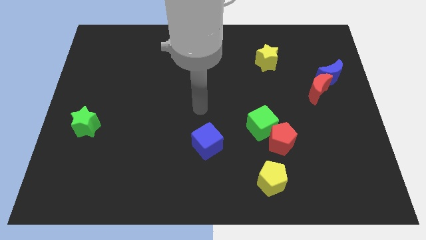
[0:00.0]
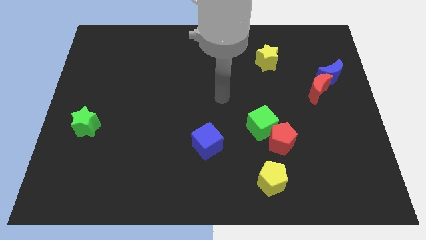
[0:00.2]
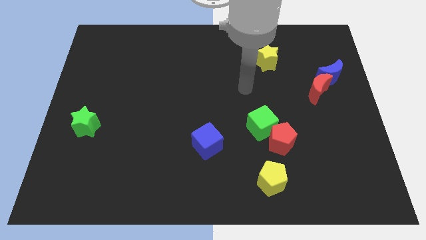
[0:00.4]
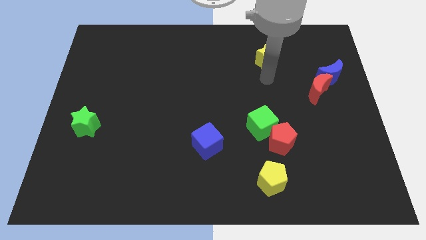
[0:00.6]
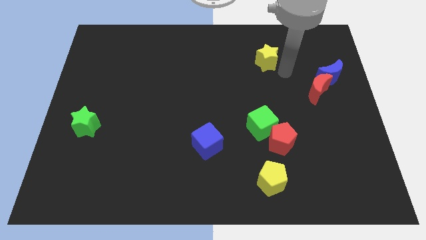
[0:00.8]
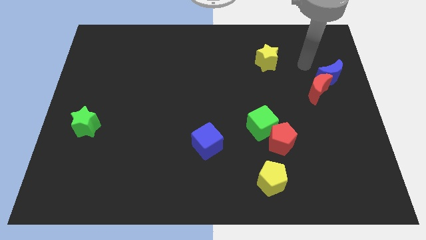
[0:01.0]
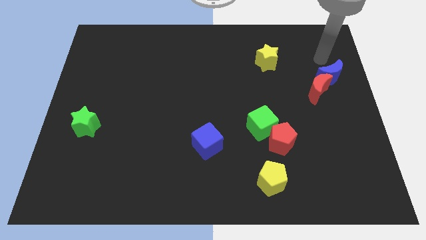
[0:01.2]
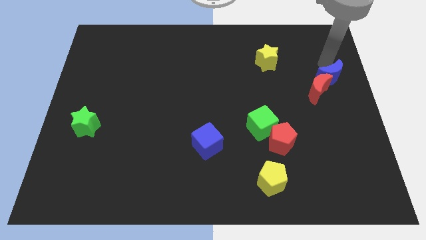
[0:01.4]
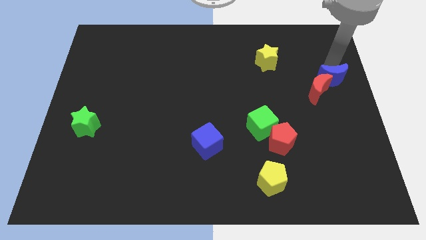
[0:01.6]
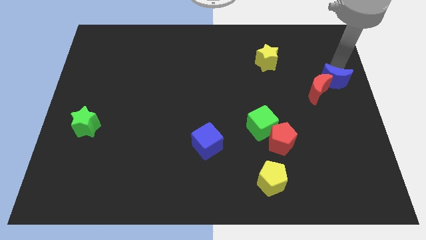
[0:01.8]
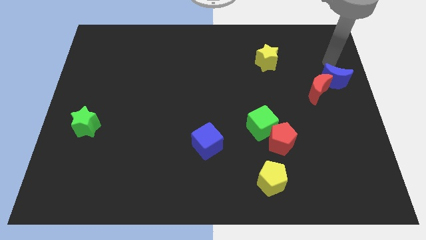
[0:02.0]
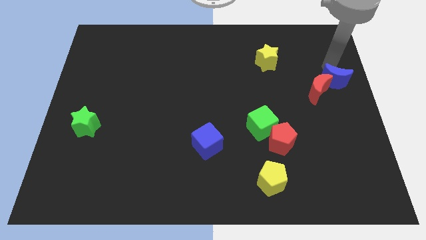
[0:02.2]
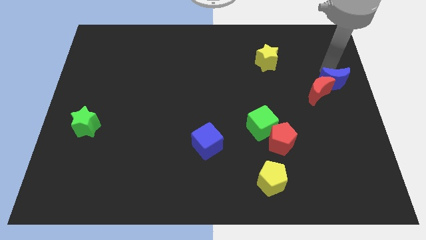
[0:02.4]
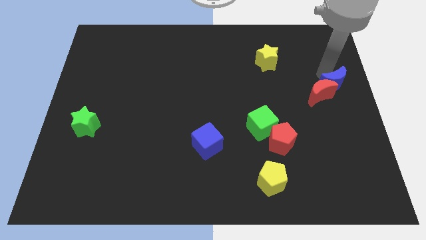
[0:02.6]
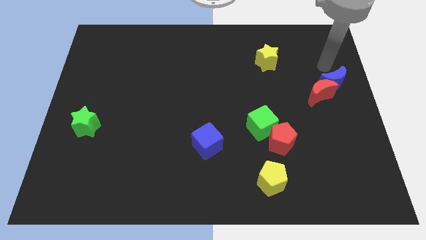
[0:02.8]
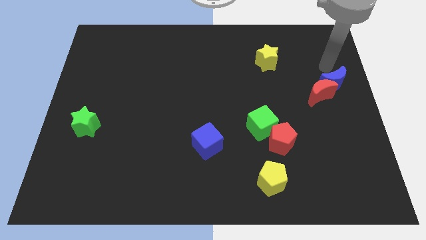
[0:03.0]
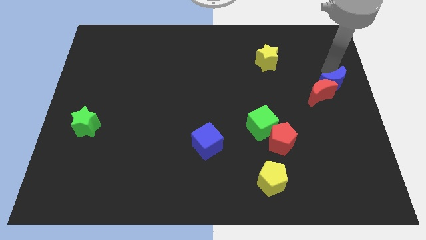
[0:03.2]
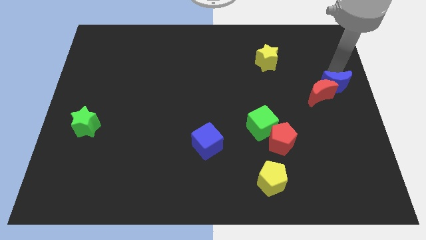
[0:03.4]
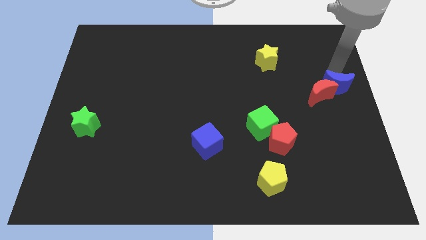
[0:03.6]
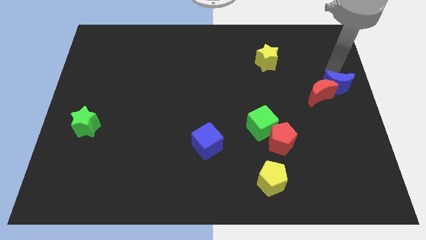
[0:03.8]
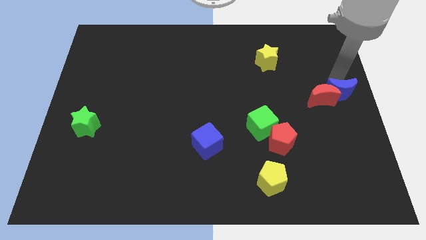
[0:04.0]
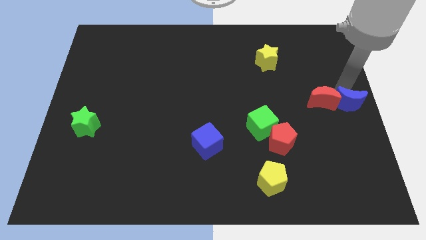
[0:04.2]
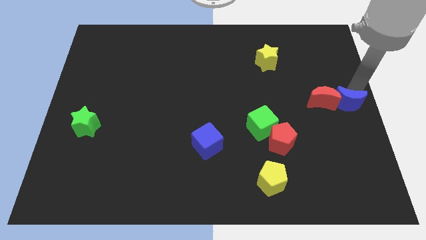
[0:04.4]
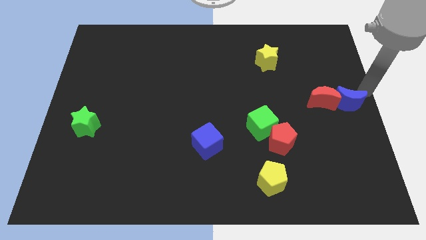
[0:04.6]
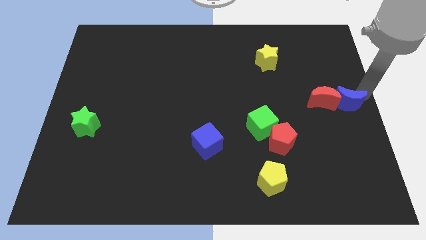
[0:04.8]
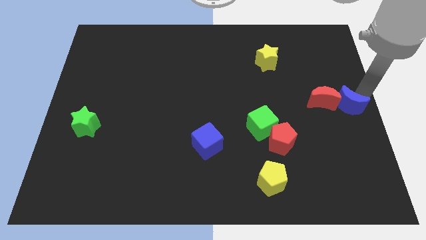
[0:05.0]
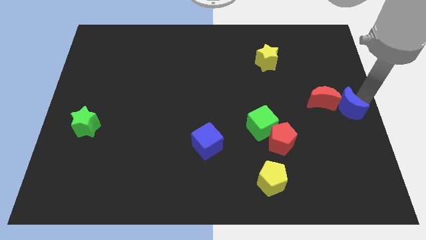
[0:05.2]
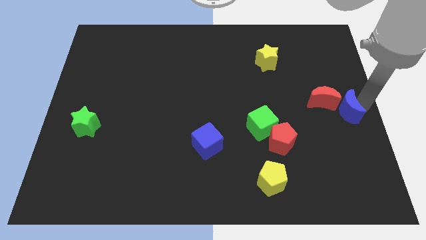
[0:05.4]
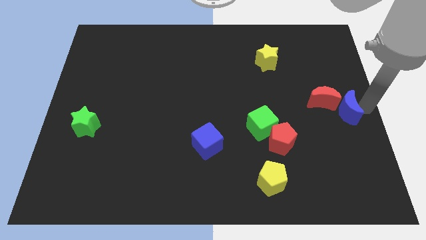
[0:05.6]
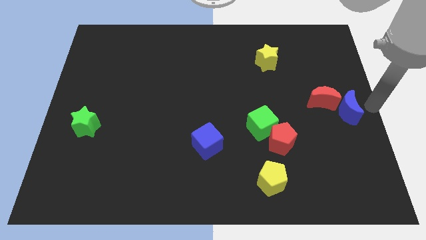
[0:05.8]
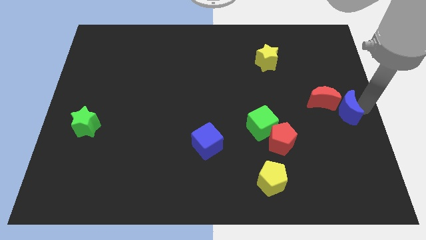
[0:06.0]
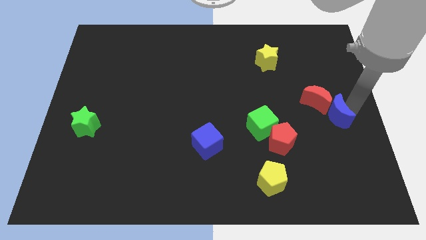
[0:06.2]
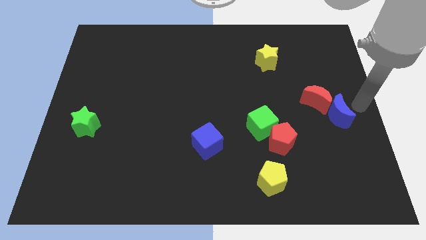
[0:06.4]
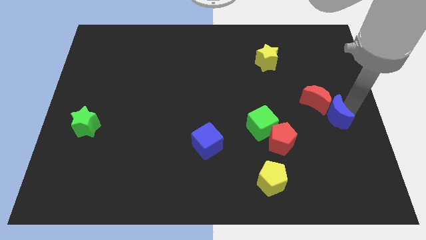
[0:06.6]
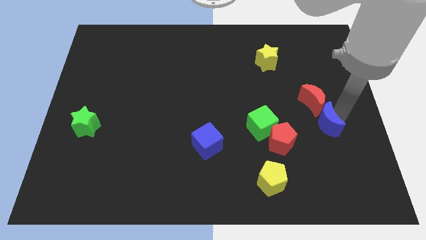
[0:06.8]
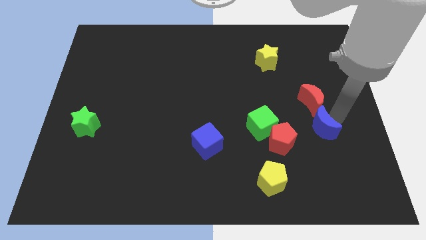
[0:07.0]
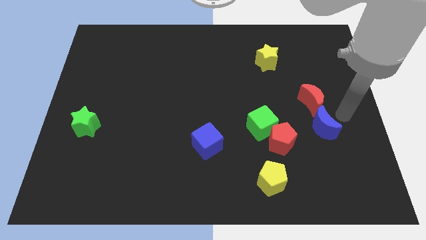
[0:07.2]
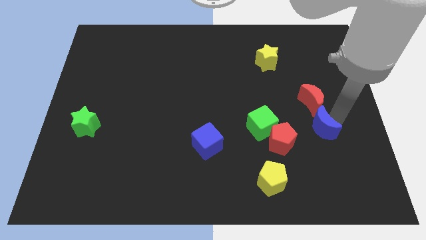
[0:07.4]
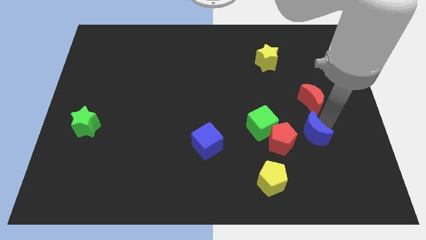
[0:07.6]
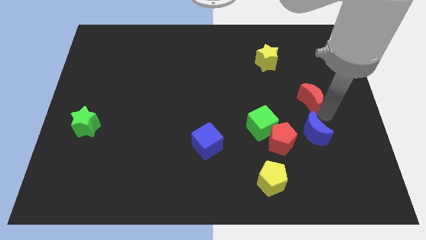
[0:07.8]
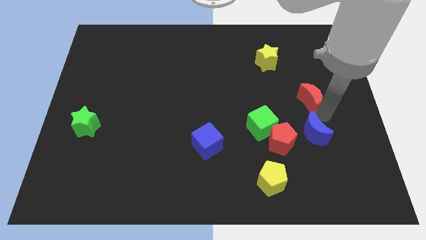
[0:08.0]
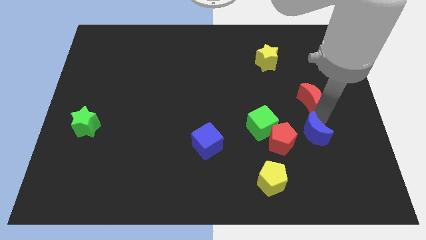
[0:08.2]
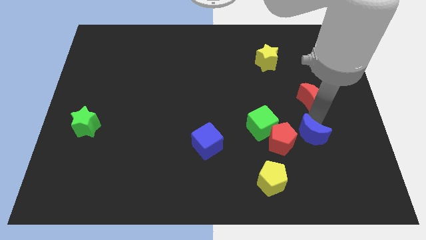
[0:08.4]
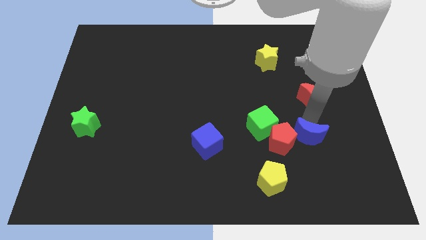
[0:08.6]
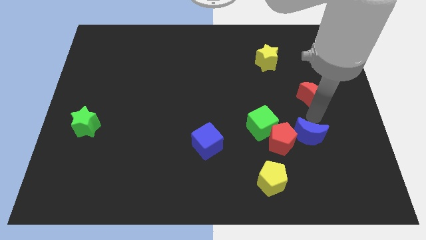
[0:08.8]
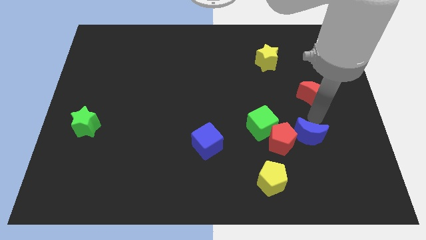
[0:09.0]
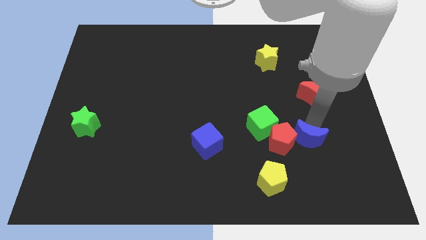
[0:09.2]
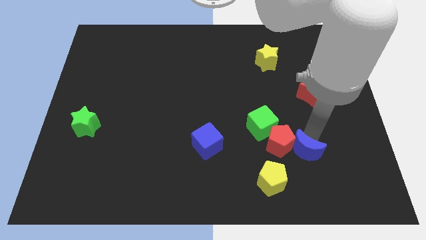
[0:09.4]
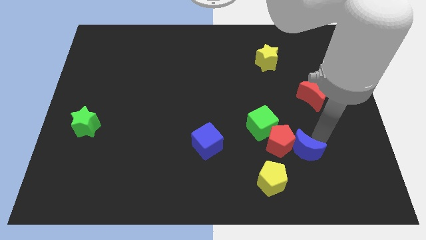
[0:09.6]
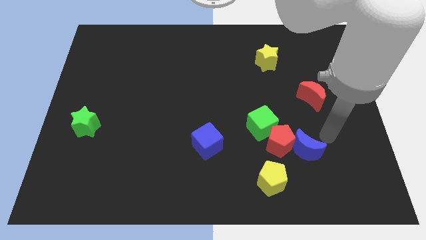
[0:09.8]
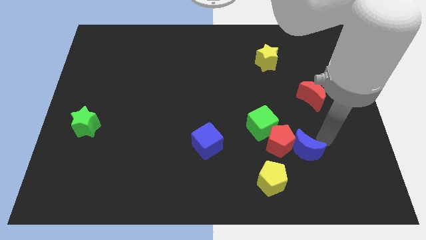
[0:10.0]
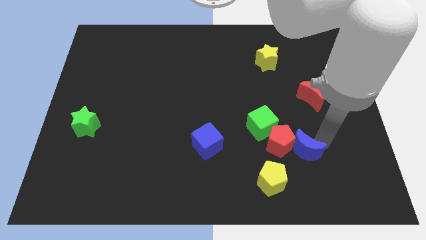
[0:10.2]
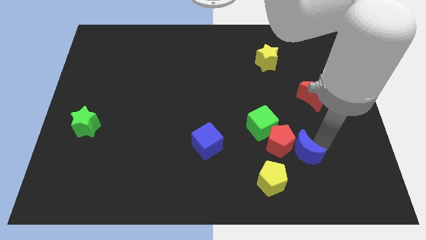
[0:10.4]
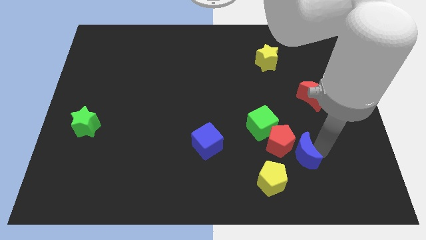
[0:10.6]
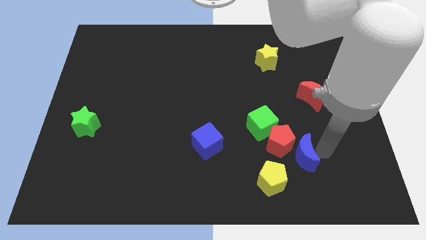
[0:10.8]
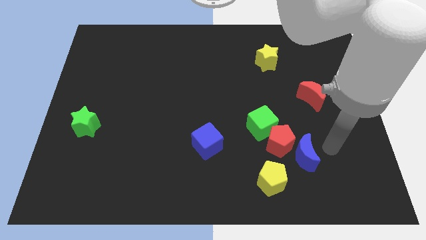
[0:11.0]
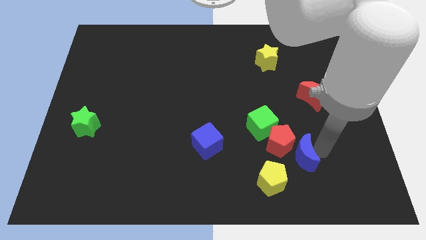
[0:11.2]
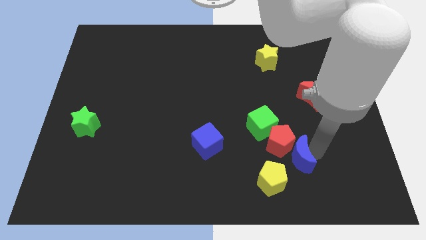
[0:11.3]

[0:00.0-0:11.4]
push the blue moon diagonally downwards and left

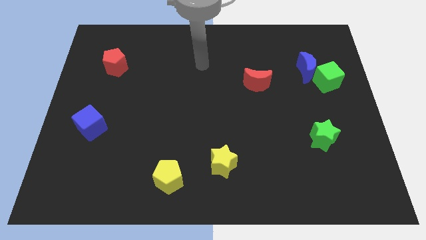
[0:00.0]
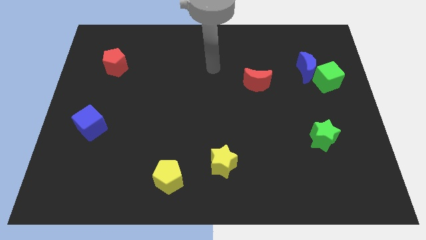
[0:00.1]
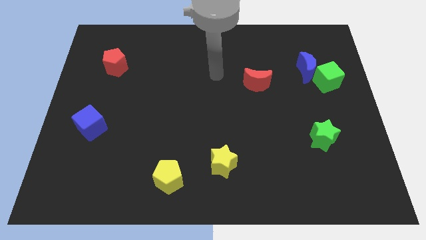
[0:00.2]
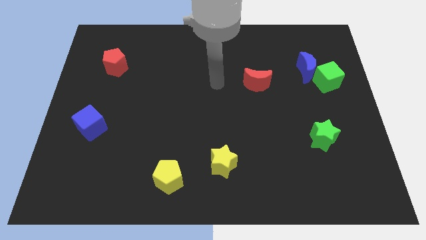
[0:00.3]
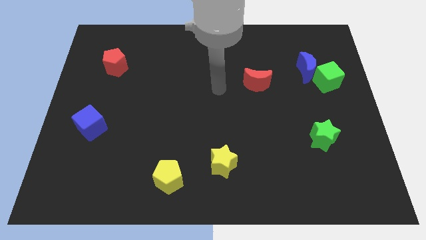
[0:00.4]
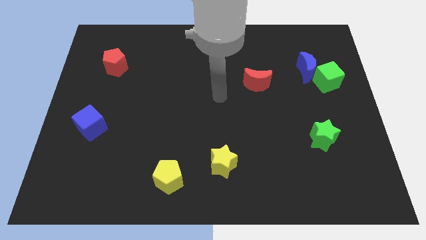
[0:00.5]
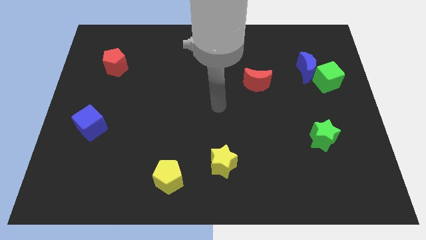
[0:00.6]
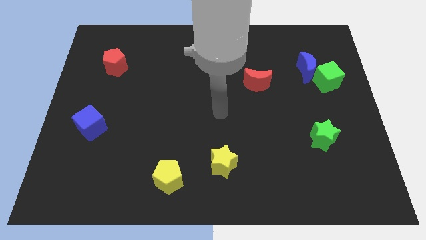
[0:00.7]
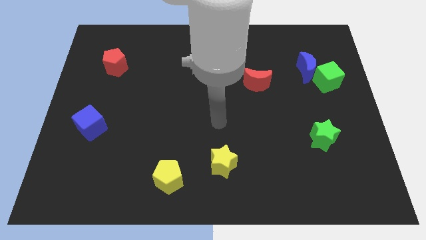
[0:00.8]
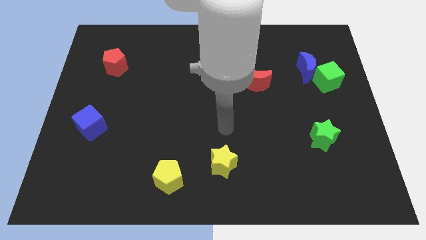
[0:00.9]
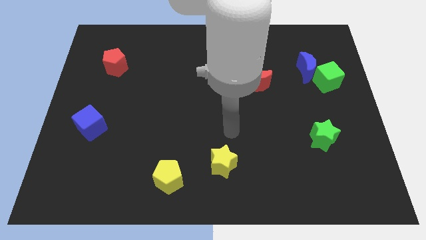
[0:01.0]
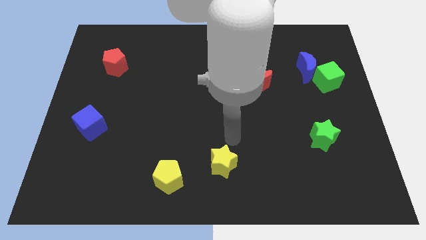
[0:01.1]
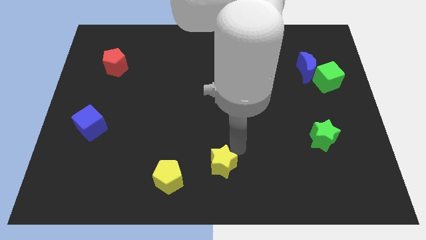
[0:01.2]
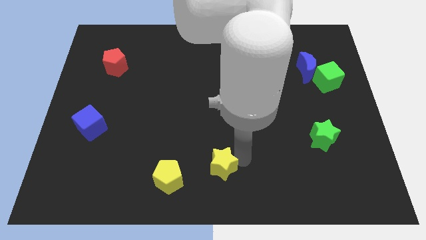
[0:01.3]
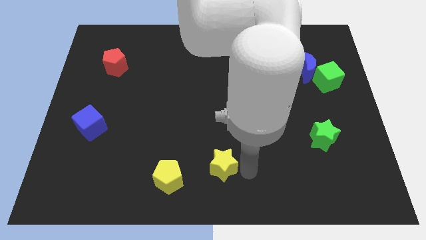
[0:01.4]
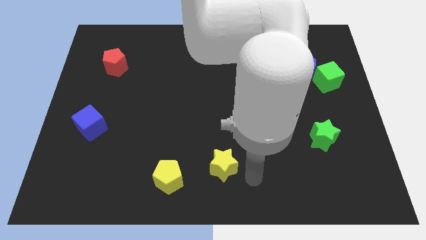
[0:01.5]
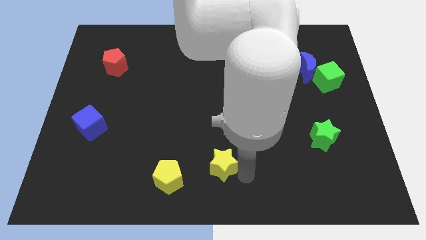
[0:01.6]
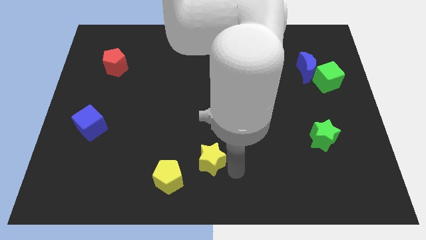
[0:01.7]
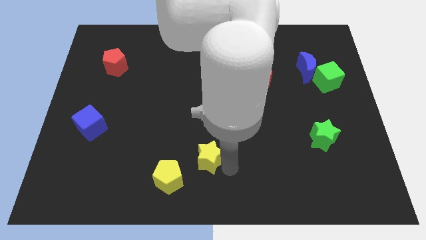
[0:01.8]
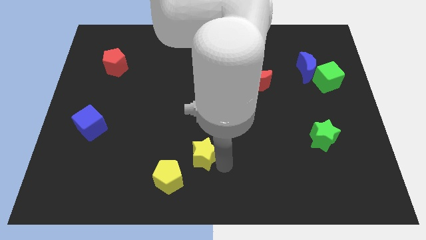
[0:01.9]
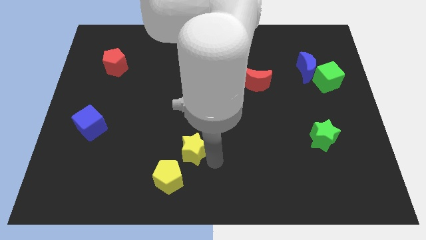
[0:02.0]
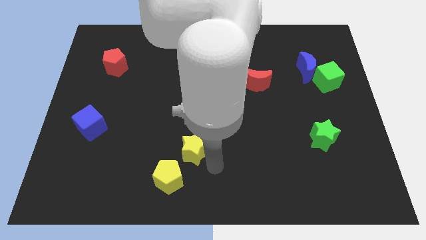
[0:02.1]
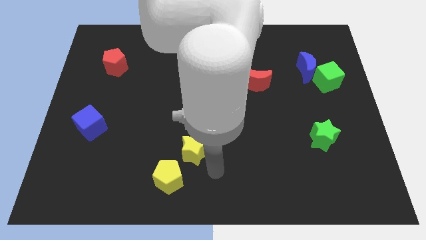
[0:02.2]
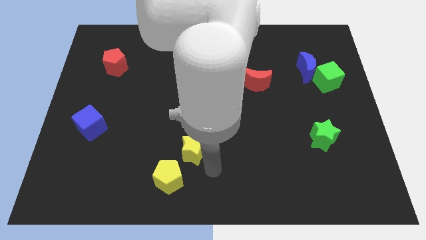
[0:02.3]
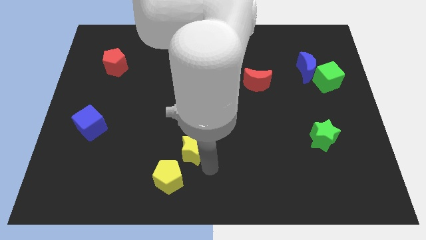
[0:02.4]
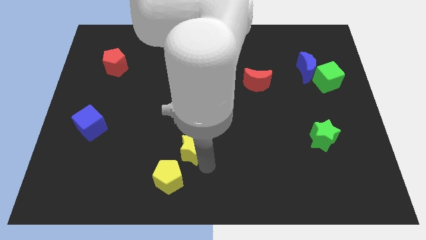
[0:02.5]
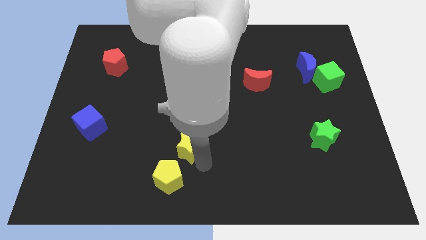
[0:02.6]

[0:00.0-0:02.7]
slide the yellow star somewhat upwards and then left
